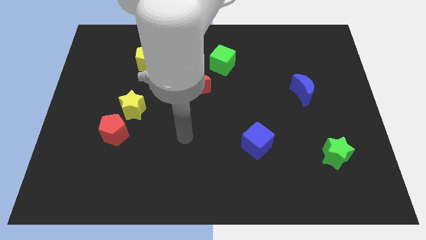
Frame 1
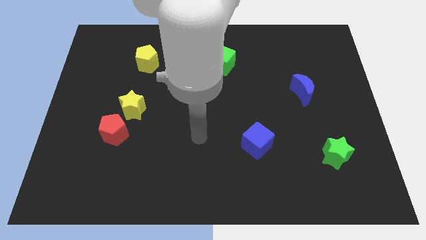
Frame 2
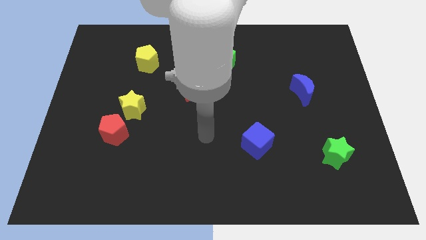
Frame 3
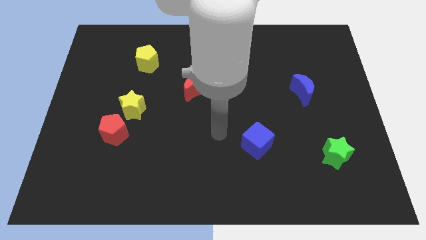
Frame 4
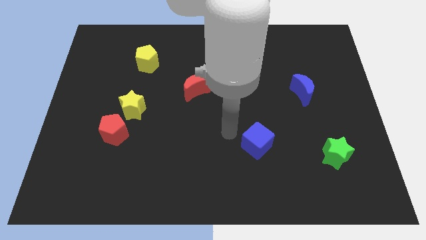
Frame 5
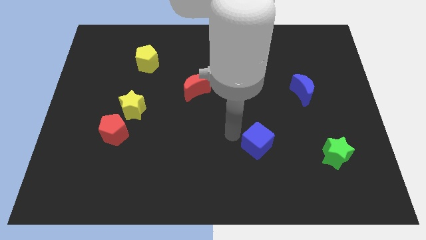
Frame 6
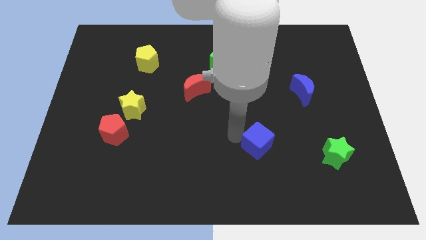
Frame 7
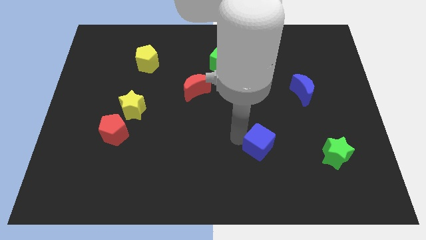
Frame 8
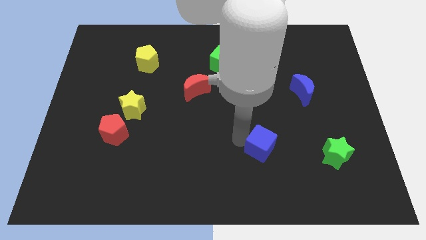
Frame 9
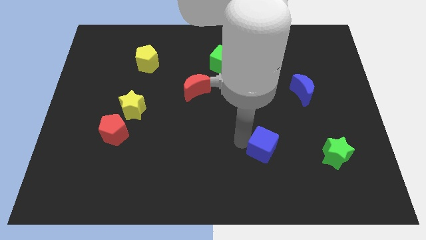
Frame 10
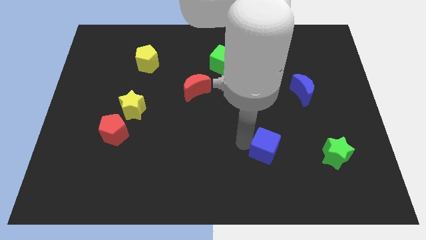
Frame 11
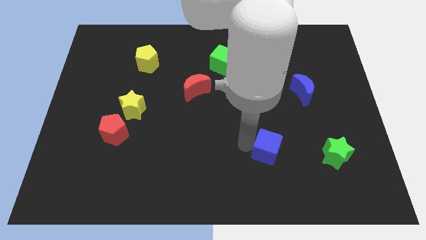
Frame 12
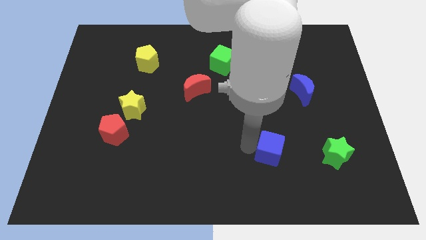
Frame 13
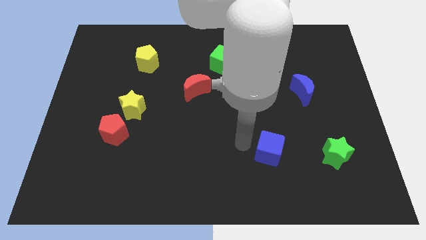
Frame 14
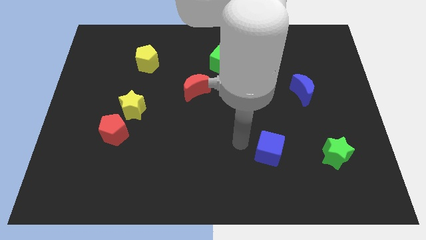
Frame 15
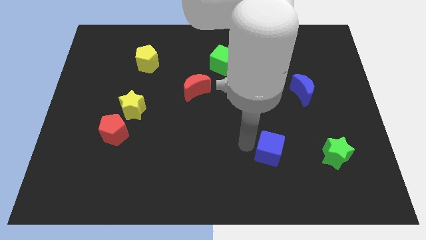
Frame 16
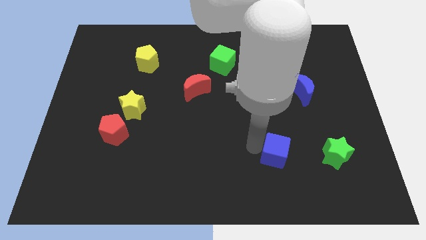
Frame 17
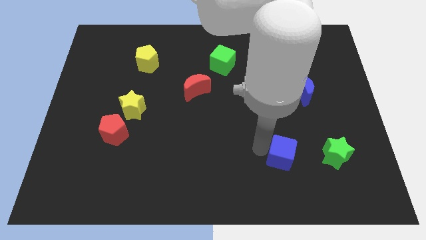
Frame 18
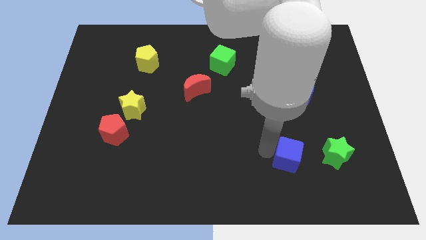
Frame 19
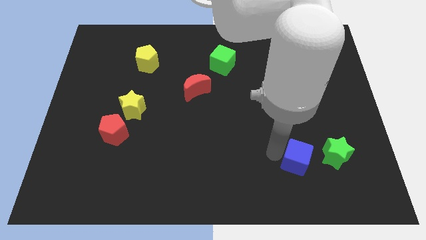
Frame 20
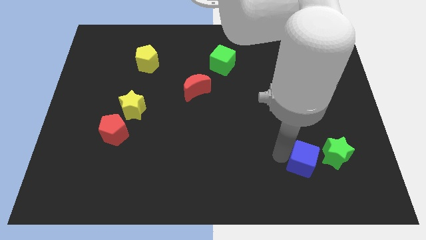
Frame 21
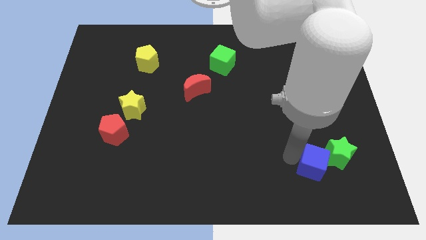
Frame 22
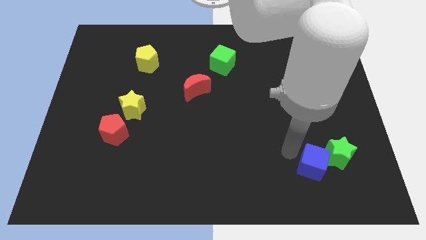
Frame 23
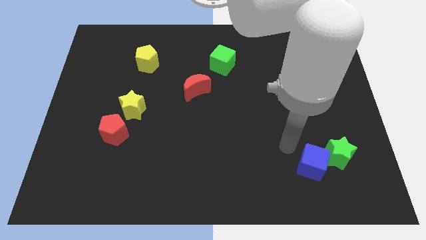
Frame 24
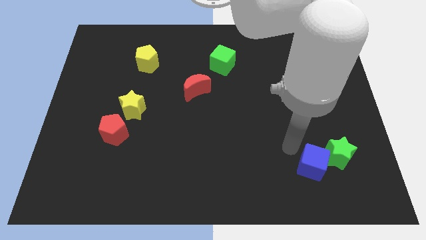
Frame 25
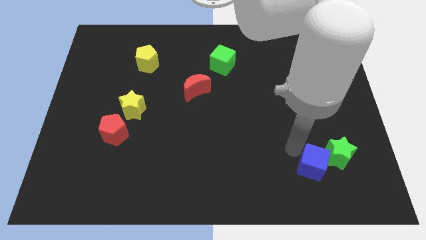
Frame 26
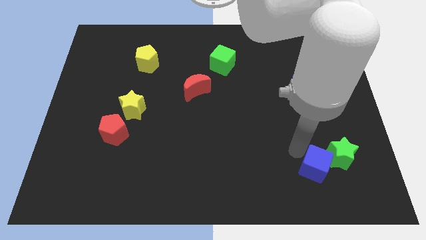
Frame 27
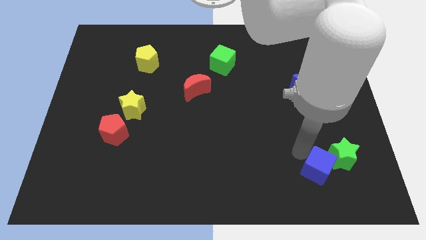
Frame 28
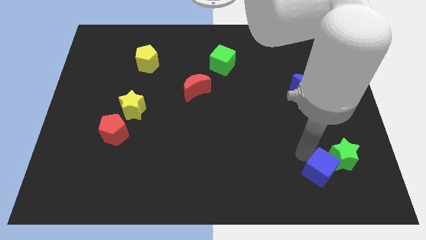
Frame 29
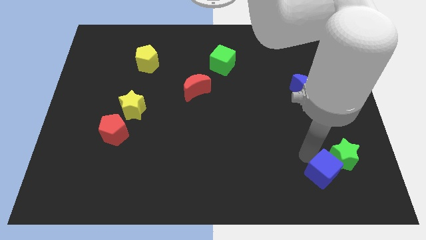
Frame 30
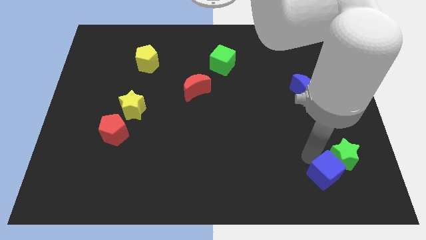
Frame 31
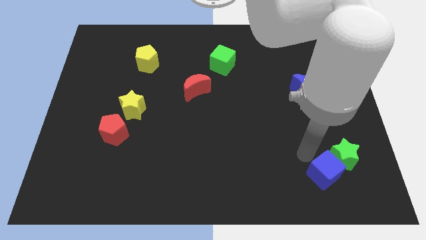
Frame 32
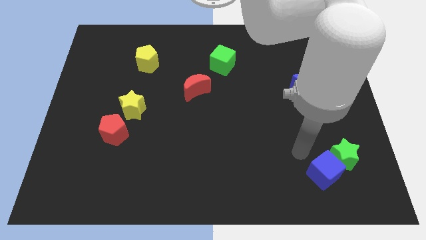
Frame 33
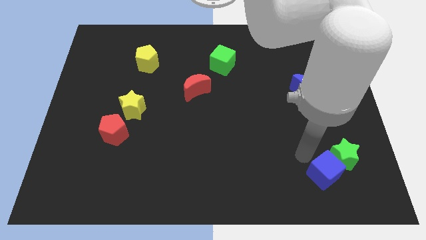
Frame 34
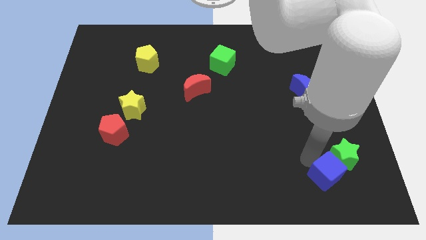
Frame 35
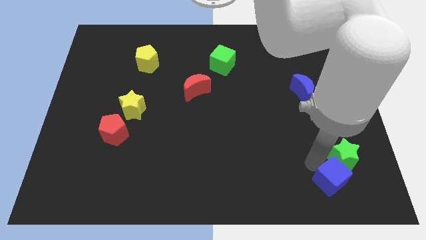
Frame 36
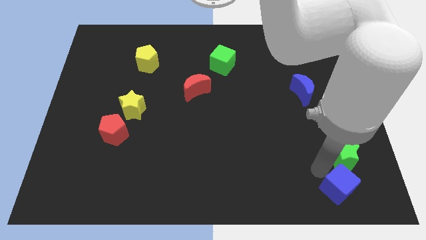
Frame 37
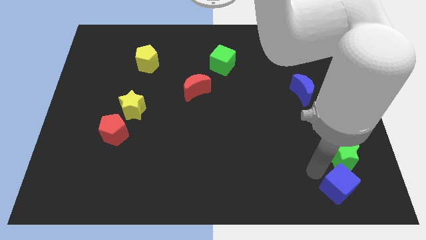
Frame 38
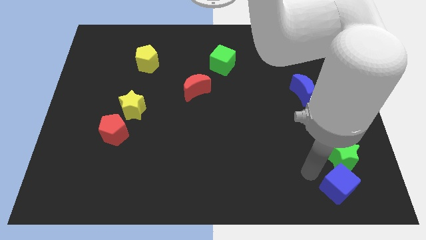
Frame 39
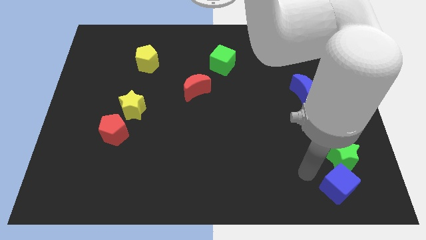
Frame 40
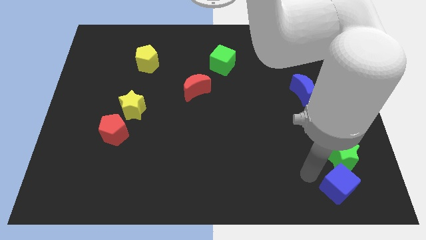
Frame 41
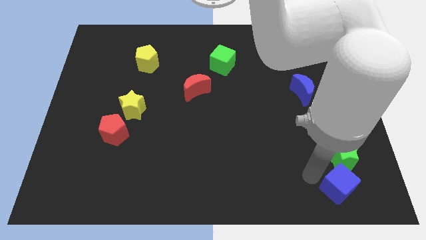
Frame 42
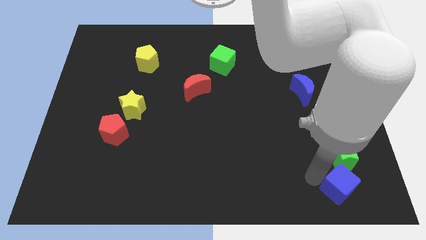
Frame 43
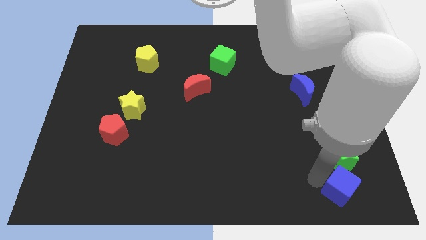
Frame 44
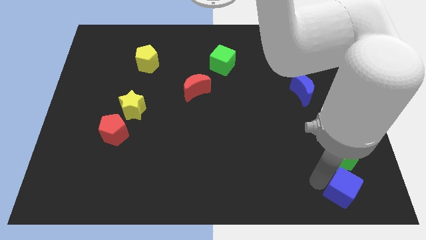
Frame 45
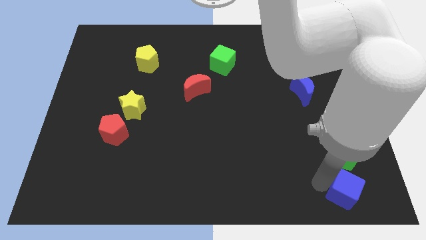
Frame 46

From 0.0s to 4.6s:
move the blue cube to the bottom right corner

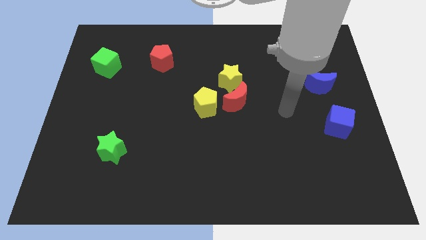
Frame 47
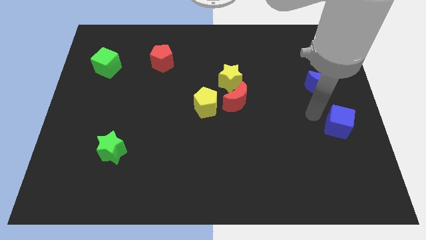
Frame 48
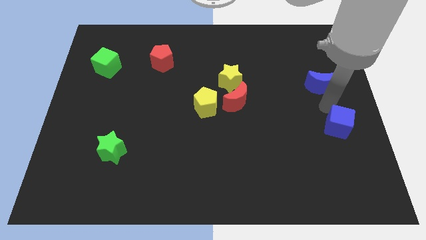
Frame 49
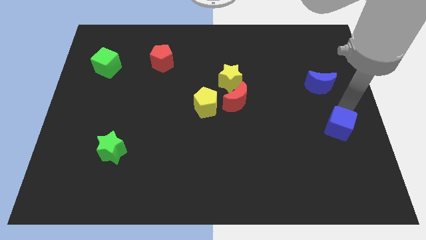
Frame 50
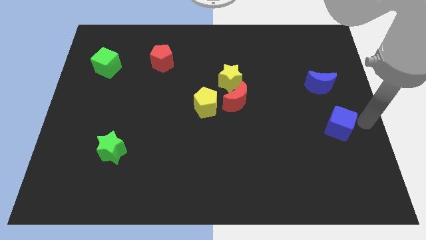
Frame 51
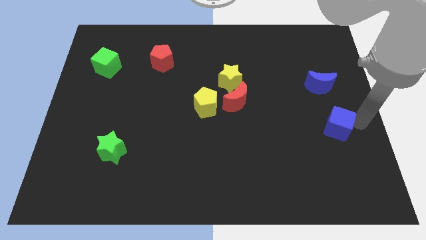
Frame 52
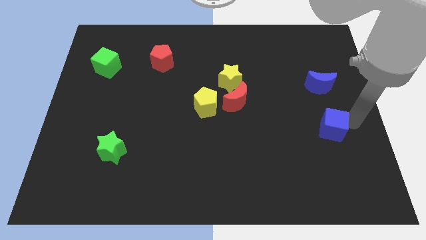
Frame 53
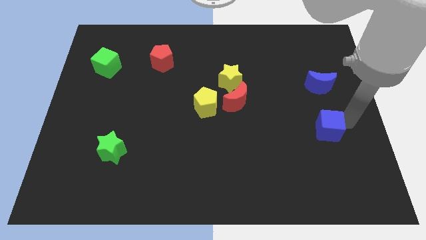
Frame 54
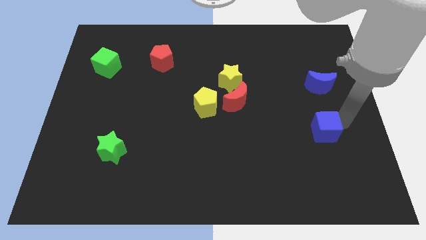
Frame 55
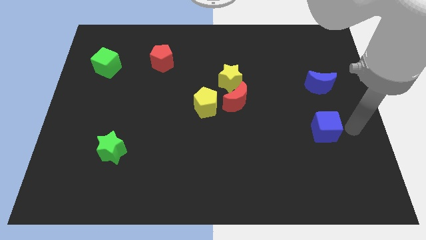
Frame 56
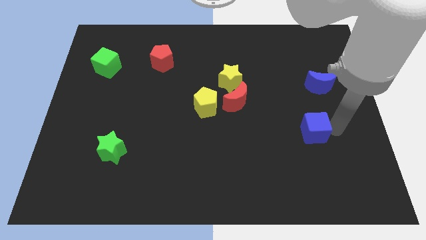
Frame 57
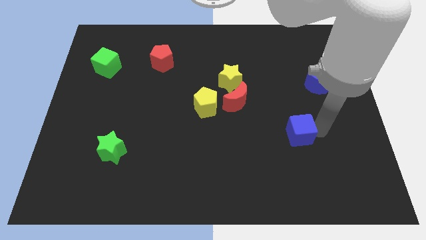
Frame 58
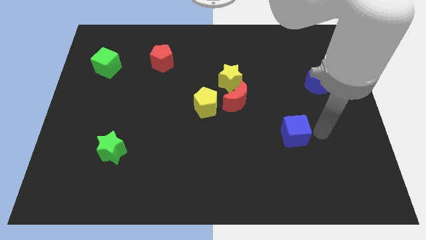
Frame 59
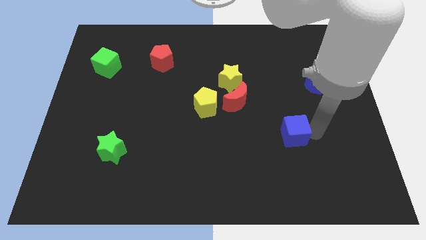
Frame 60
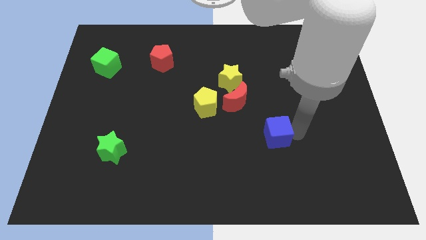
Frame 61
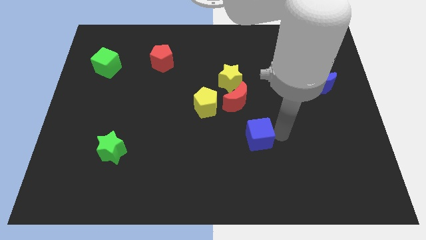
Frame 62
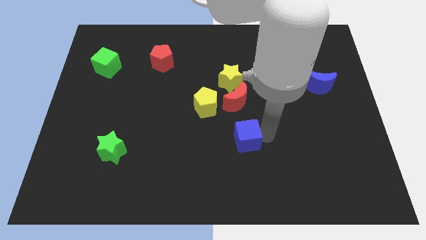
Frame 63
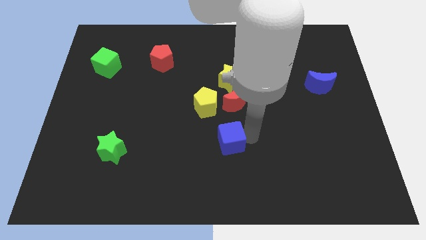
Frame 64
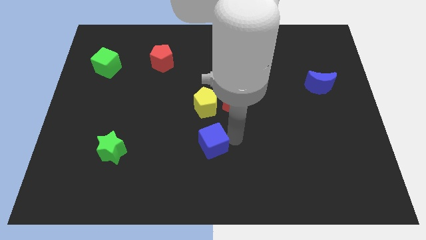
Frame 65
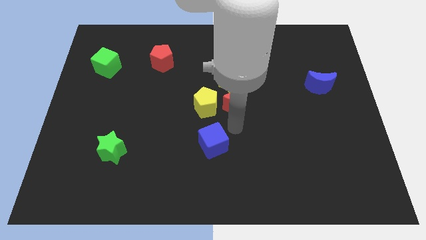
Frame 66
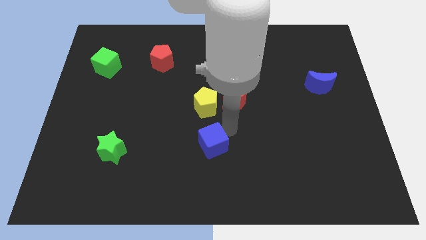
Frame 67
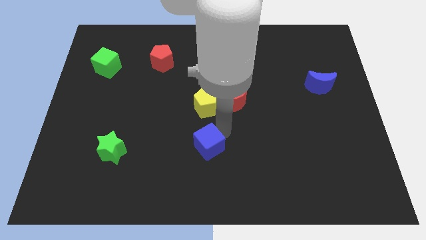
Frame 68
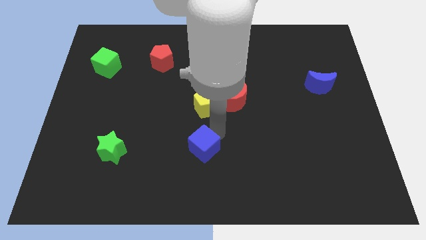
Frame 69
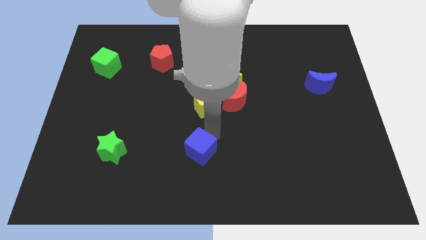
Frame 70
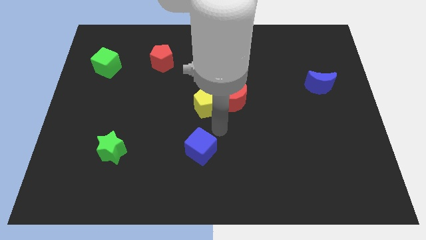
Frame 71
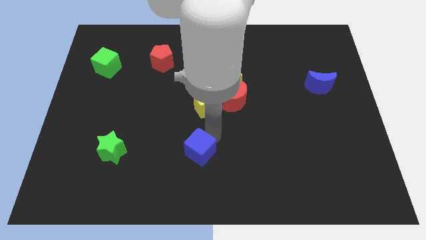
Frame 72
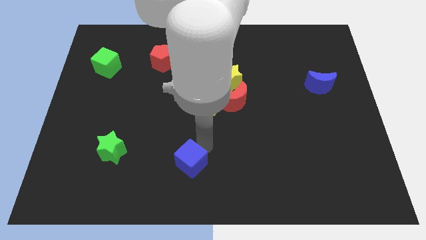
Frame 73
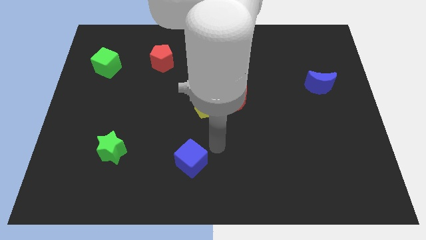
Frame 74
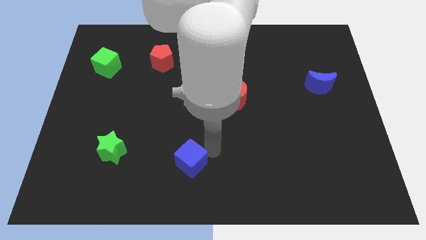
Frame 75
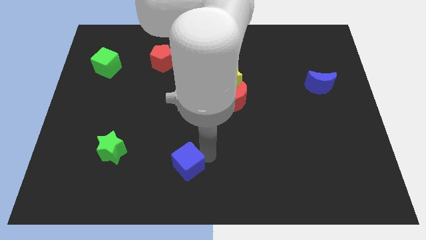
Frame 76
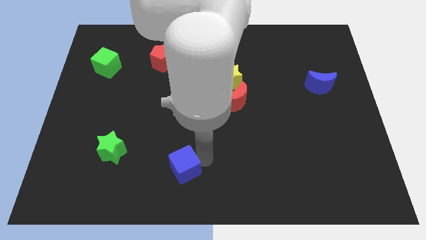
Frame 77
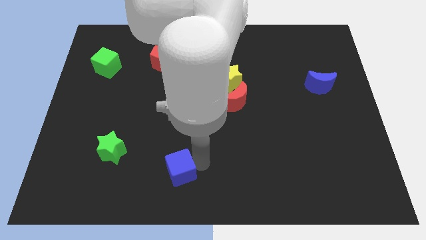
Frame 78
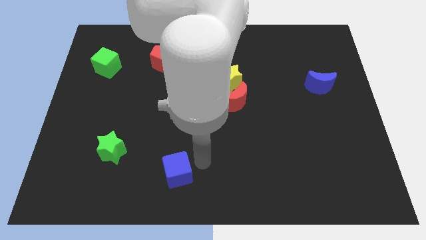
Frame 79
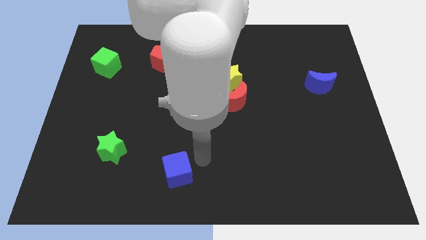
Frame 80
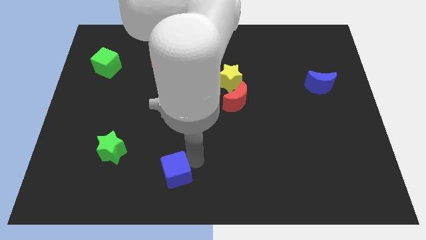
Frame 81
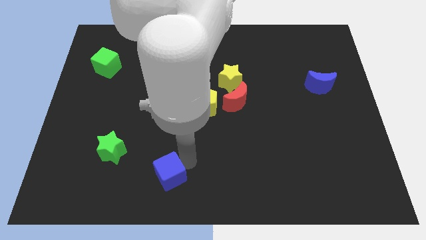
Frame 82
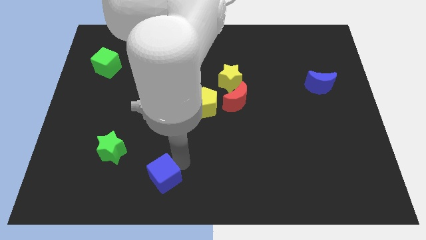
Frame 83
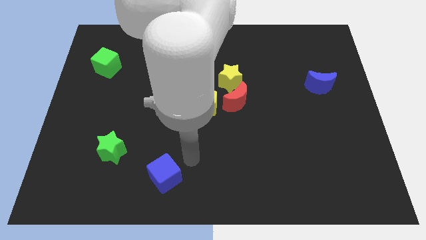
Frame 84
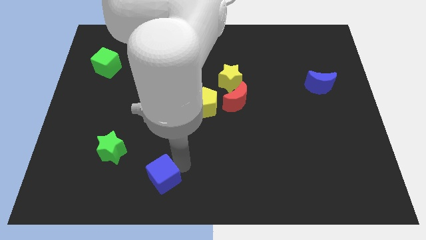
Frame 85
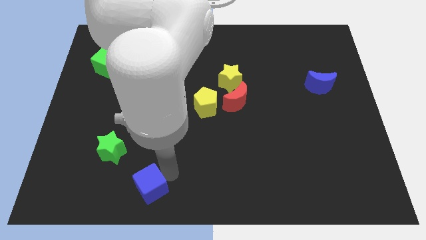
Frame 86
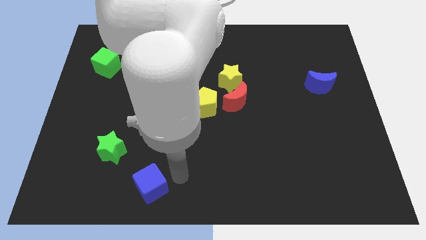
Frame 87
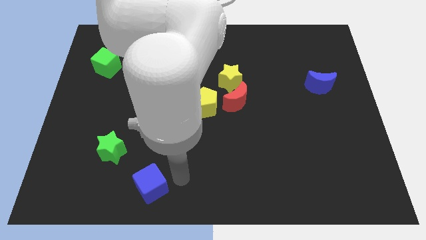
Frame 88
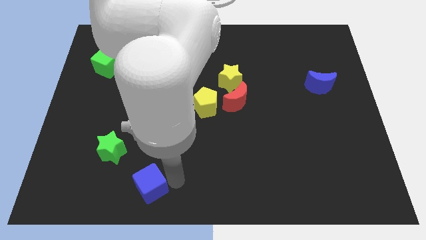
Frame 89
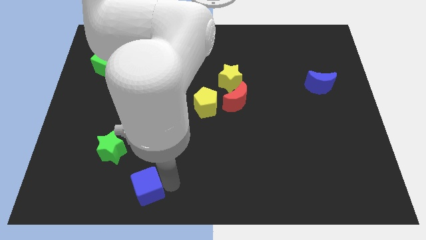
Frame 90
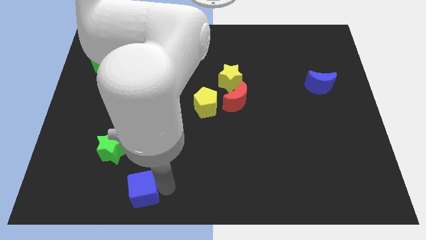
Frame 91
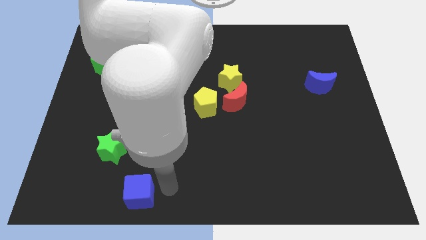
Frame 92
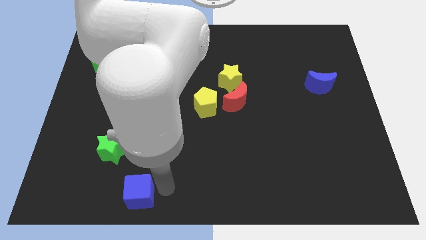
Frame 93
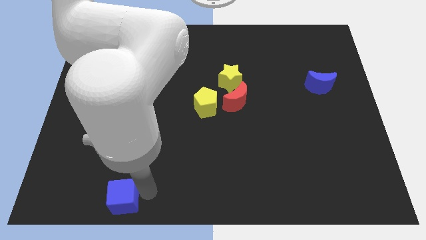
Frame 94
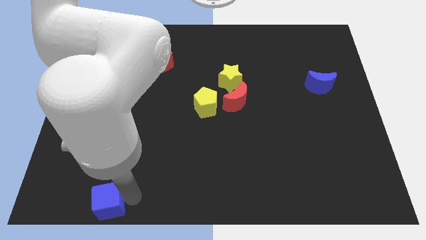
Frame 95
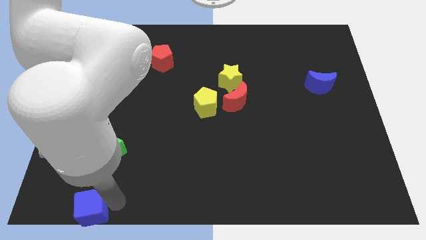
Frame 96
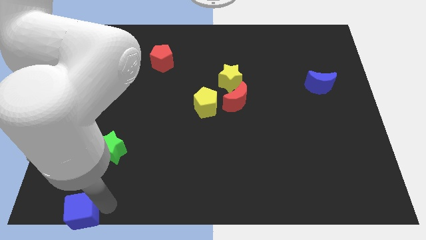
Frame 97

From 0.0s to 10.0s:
move the blue cube to the bottom left corner
